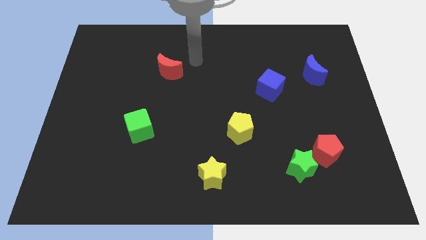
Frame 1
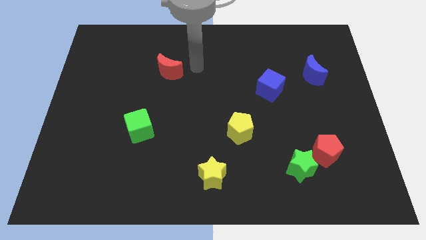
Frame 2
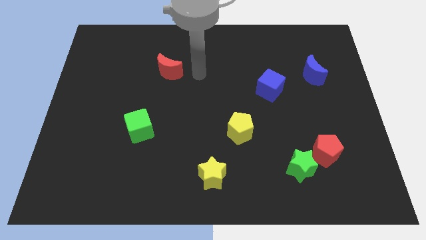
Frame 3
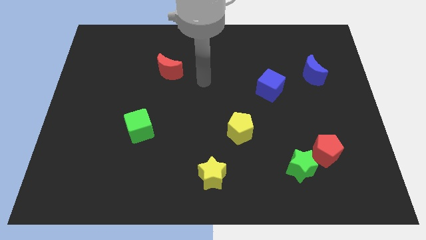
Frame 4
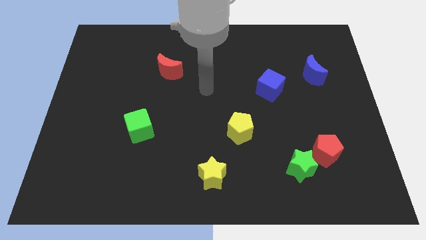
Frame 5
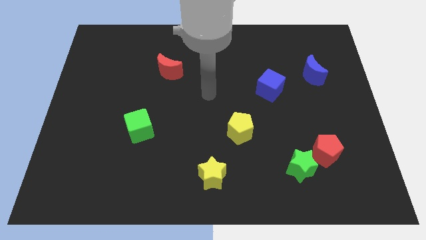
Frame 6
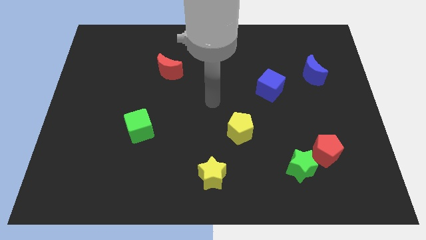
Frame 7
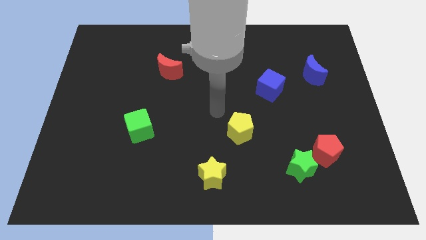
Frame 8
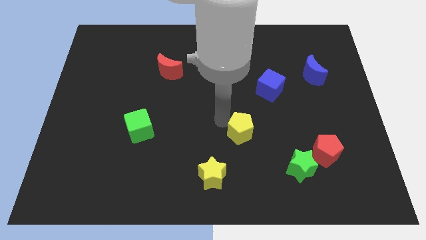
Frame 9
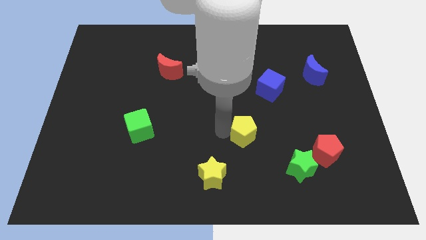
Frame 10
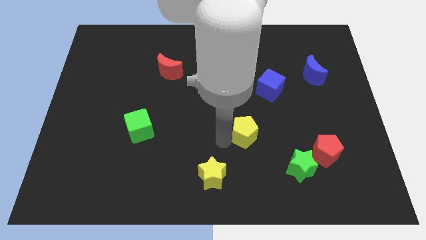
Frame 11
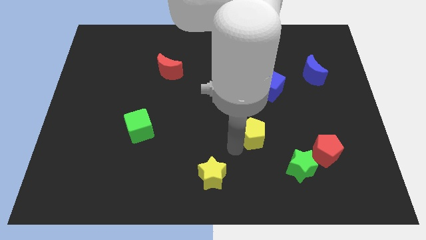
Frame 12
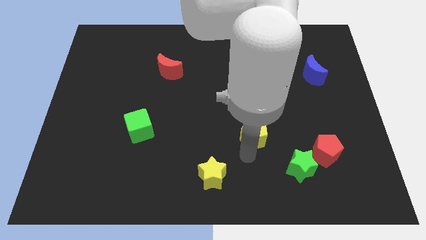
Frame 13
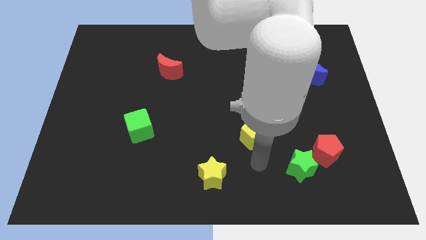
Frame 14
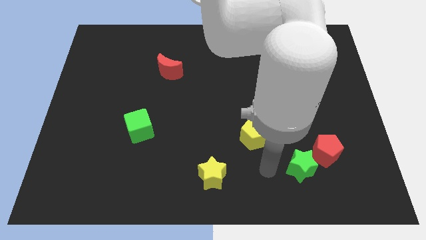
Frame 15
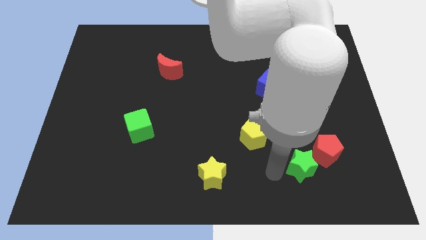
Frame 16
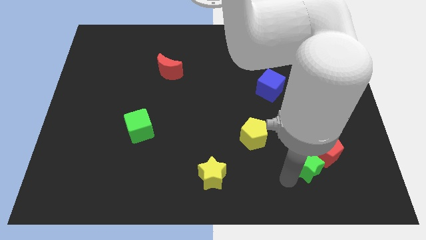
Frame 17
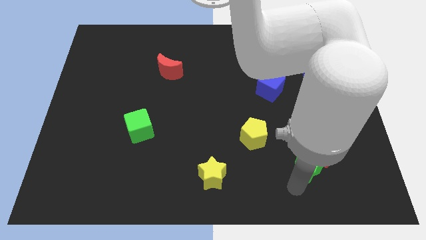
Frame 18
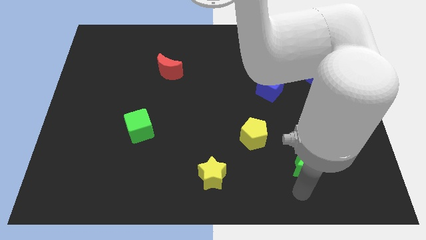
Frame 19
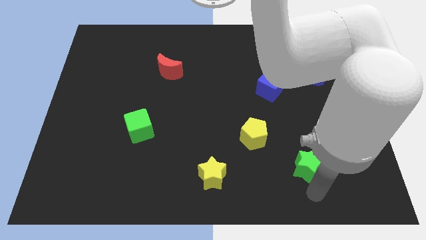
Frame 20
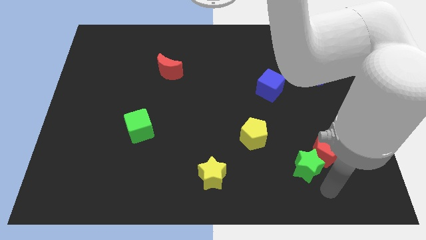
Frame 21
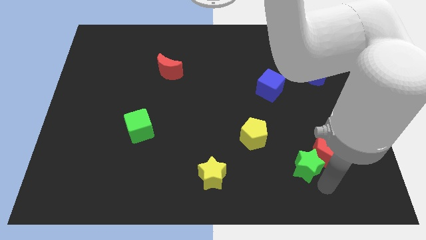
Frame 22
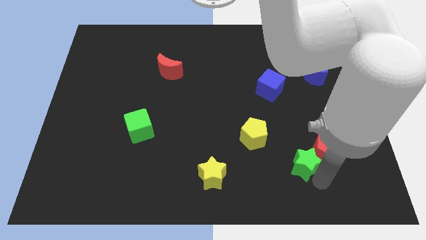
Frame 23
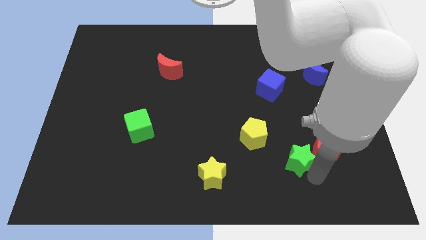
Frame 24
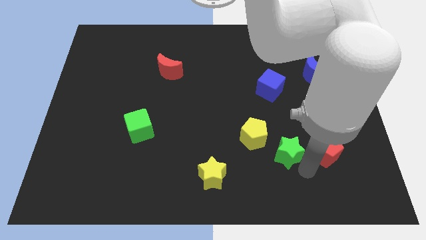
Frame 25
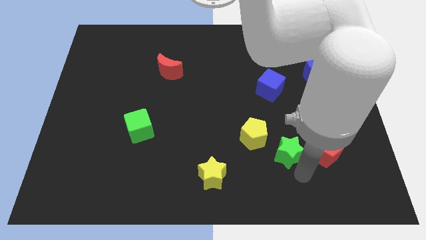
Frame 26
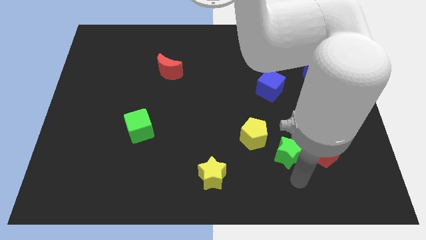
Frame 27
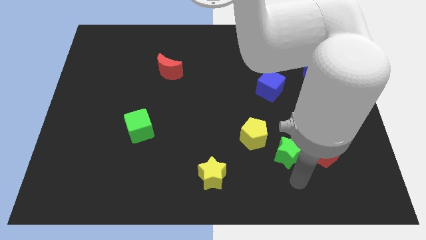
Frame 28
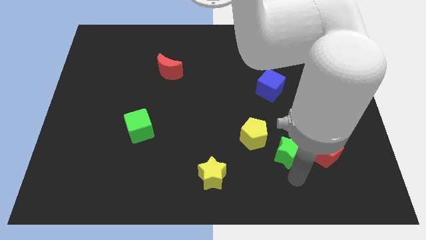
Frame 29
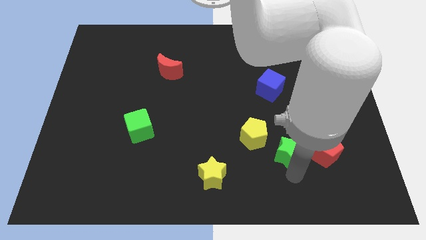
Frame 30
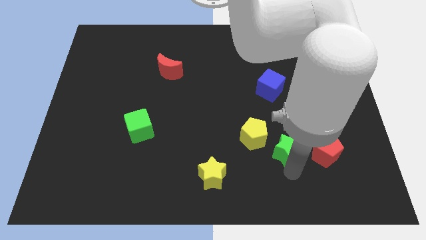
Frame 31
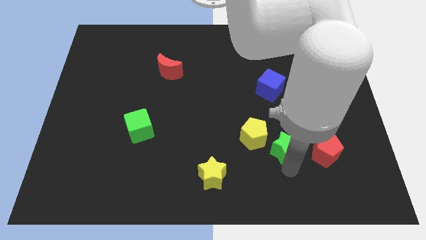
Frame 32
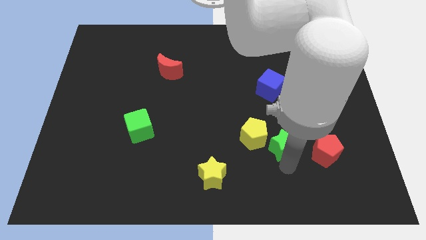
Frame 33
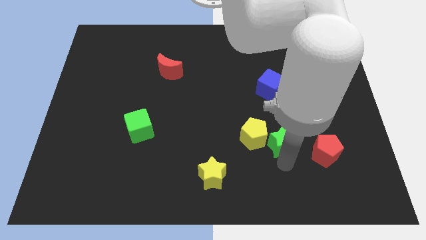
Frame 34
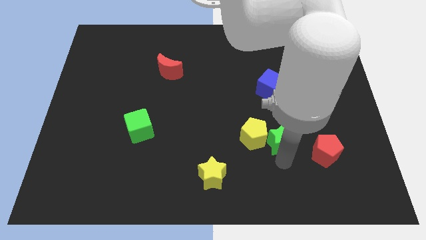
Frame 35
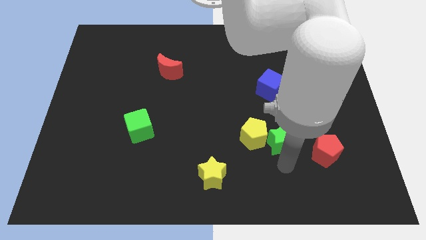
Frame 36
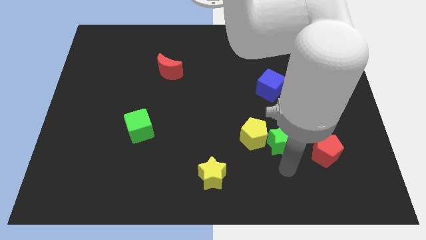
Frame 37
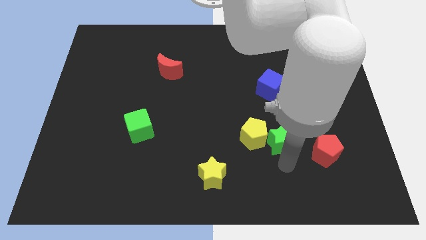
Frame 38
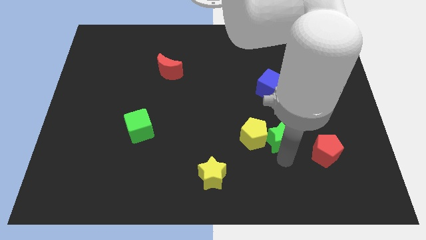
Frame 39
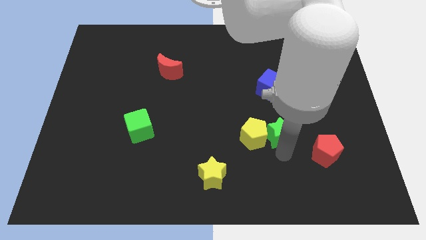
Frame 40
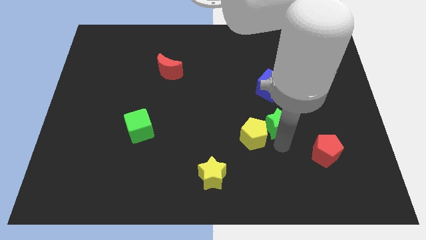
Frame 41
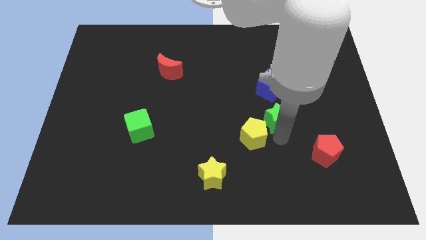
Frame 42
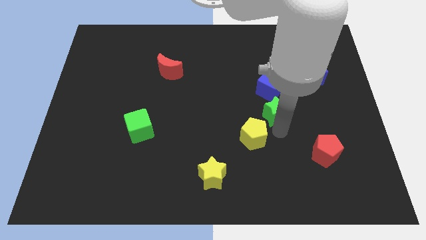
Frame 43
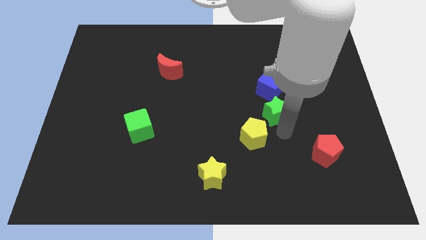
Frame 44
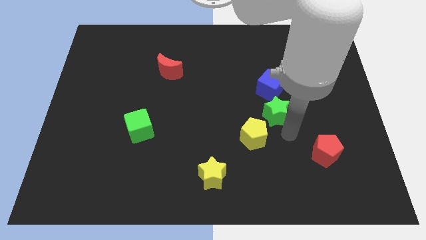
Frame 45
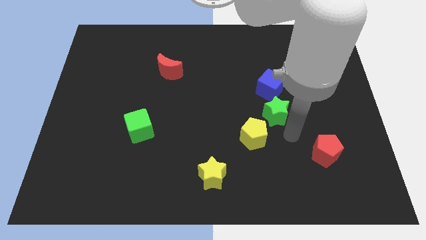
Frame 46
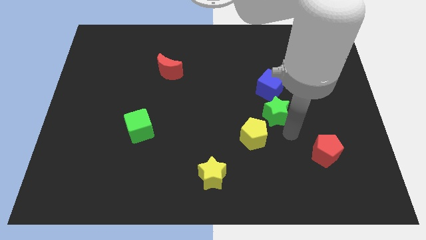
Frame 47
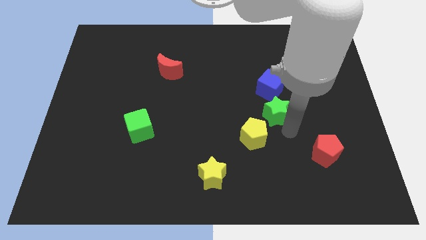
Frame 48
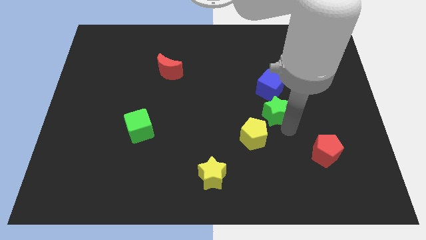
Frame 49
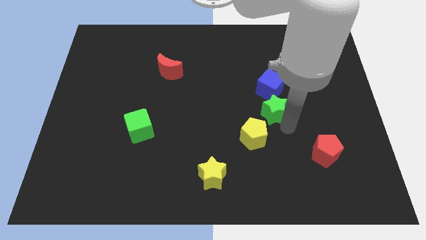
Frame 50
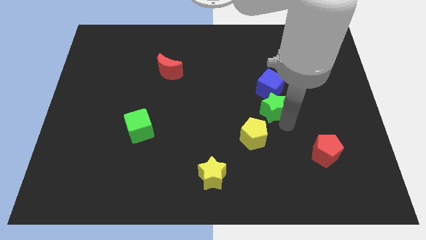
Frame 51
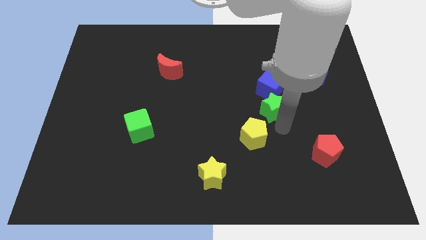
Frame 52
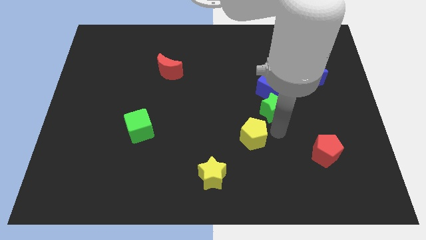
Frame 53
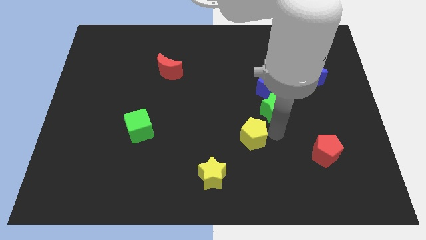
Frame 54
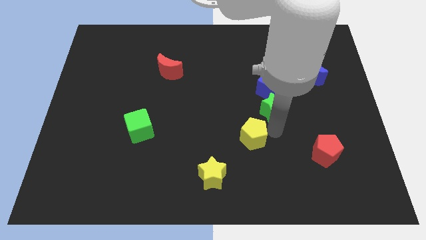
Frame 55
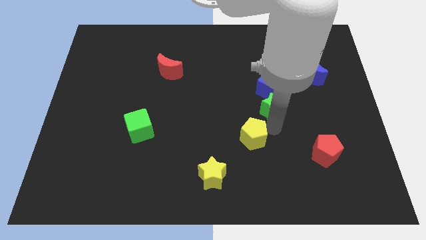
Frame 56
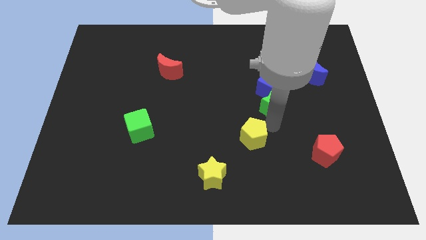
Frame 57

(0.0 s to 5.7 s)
slide the green star to the blue cube
